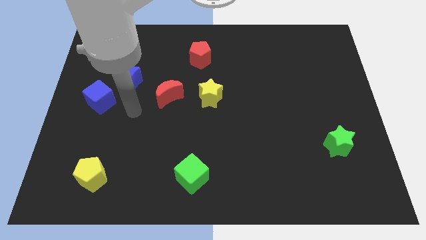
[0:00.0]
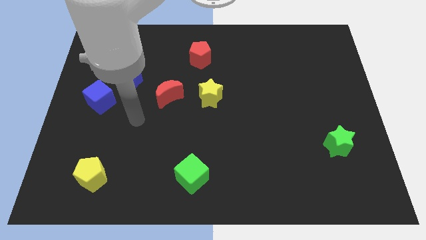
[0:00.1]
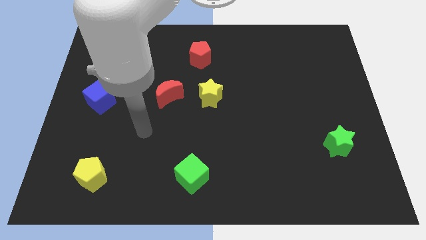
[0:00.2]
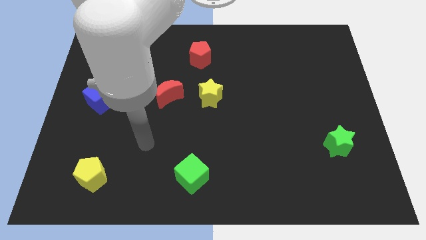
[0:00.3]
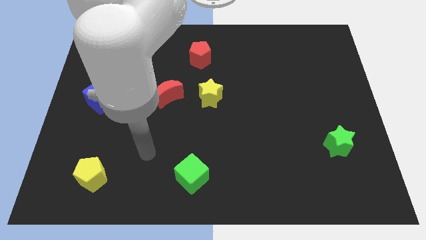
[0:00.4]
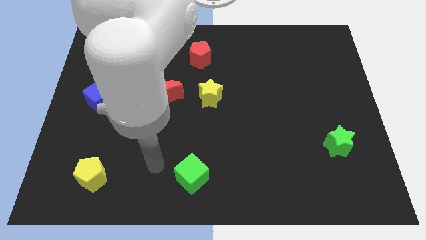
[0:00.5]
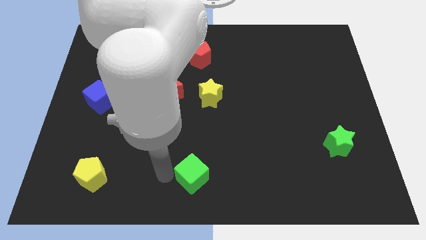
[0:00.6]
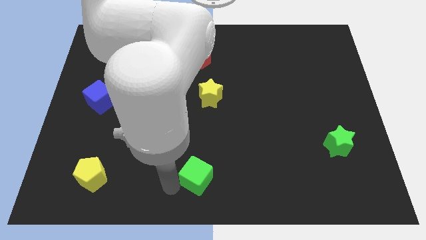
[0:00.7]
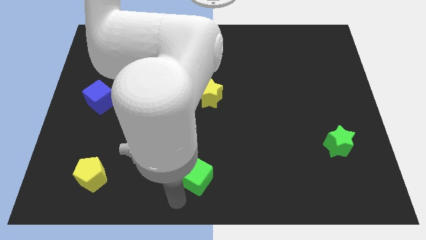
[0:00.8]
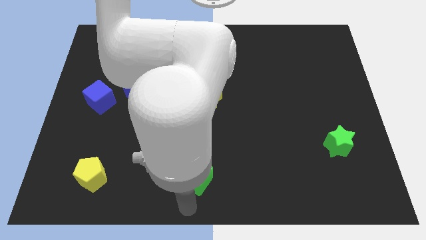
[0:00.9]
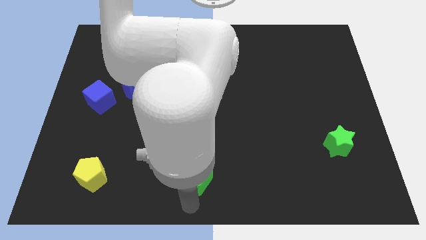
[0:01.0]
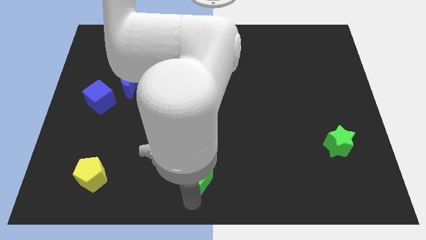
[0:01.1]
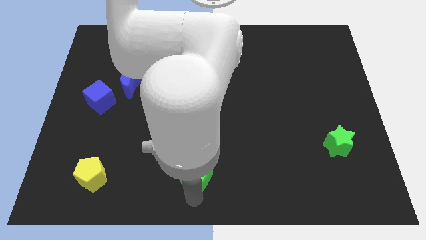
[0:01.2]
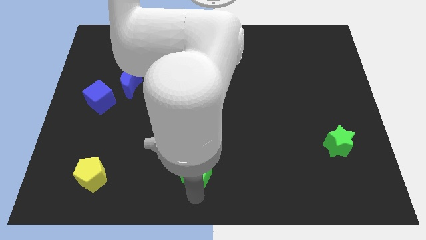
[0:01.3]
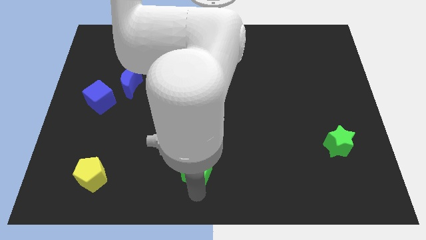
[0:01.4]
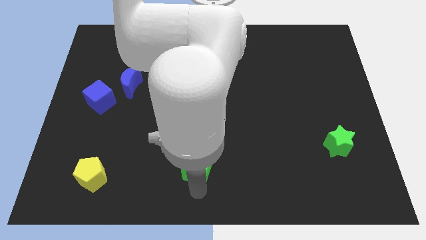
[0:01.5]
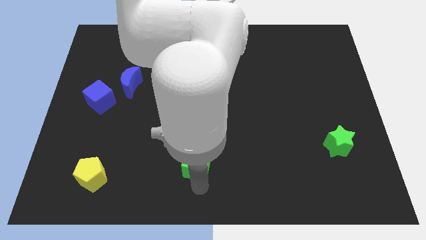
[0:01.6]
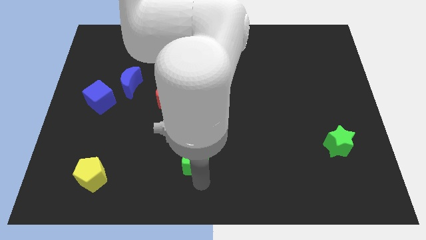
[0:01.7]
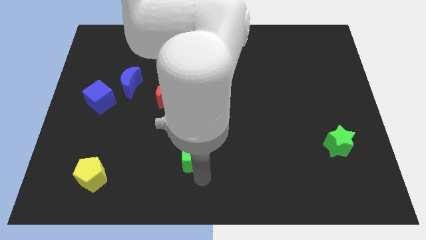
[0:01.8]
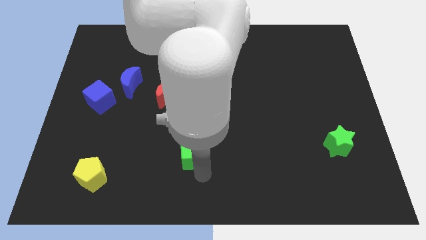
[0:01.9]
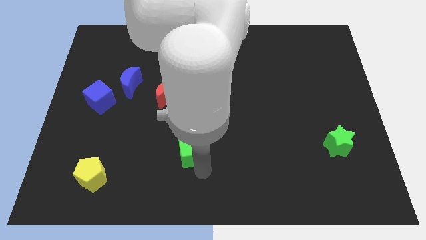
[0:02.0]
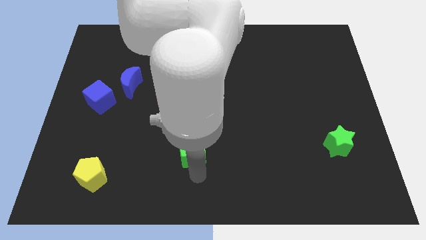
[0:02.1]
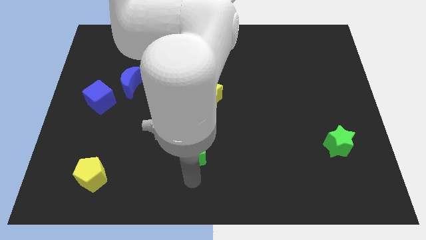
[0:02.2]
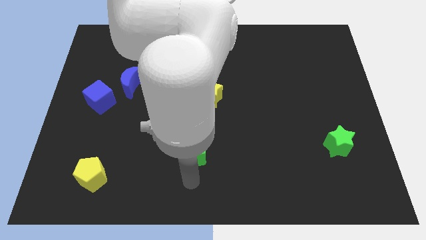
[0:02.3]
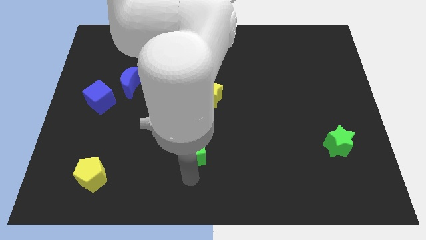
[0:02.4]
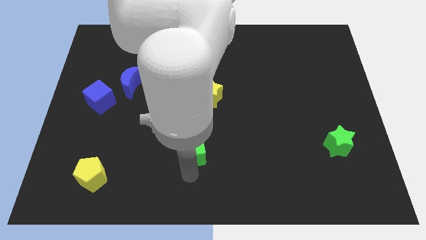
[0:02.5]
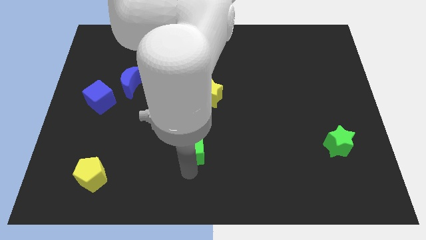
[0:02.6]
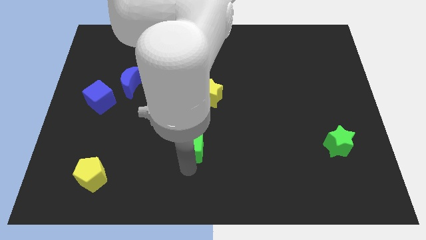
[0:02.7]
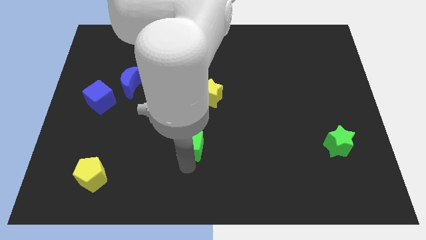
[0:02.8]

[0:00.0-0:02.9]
slide the green cube a little bit up

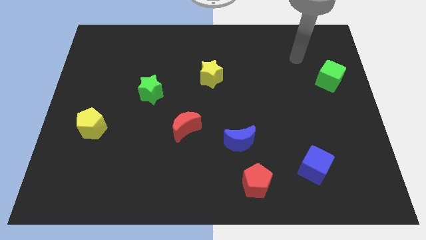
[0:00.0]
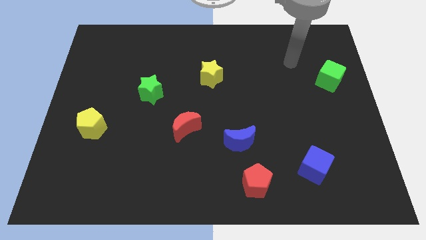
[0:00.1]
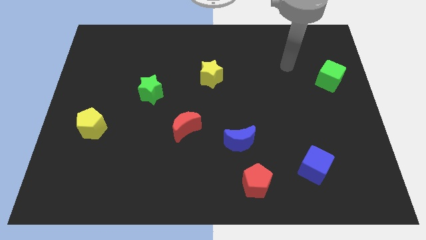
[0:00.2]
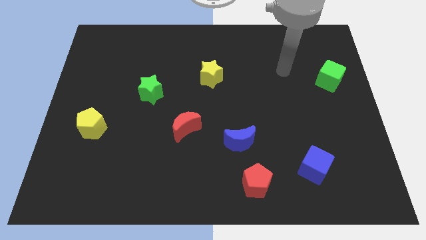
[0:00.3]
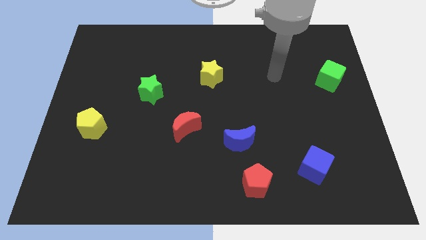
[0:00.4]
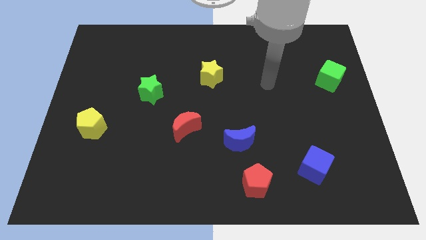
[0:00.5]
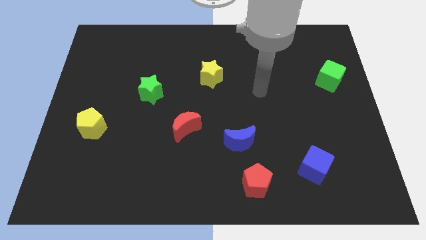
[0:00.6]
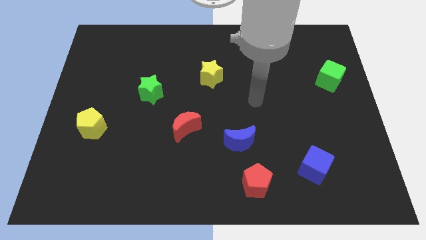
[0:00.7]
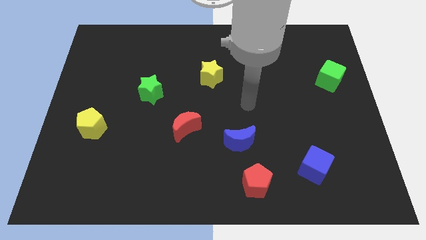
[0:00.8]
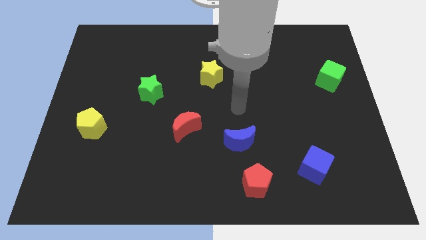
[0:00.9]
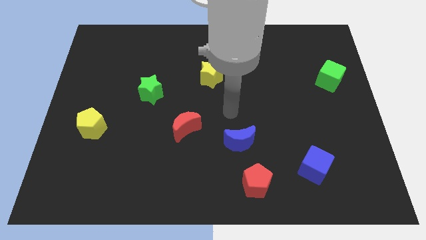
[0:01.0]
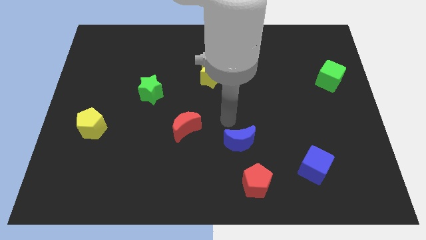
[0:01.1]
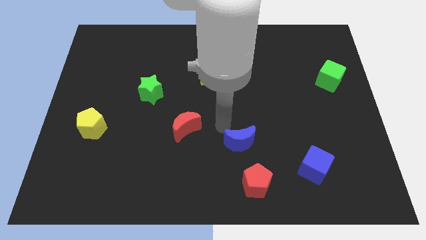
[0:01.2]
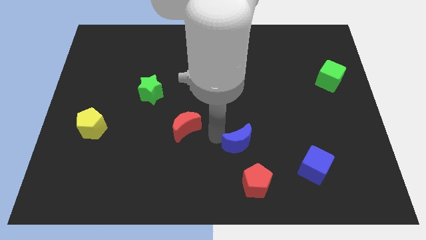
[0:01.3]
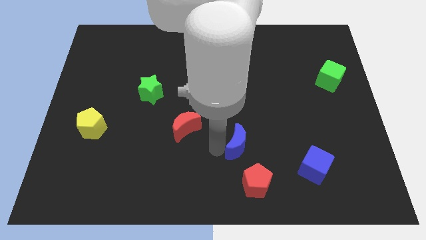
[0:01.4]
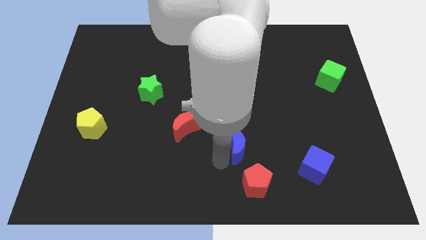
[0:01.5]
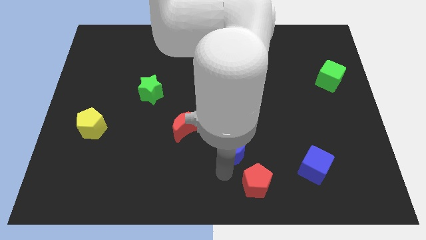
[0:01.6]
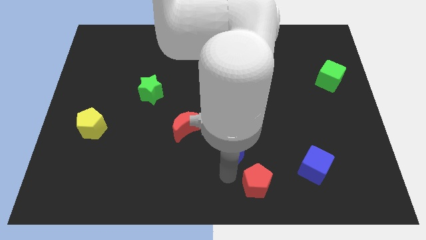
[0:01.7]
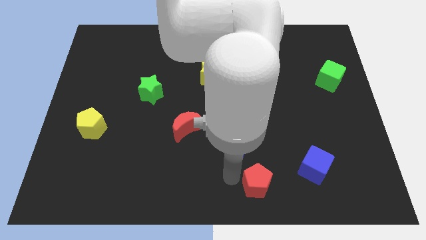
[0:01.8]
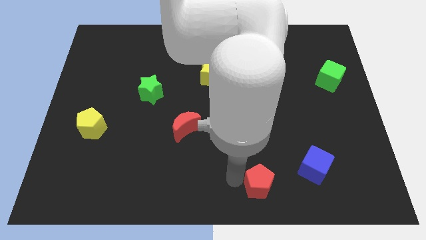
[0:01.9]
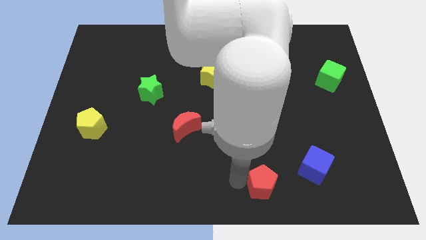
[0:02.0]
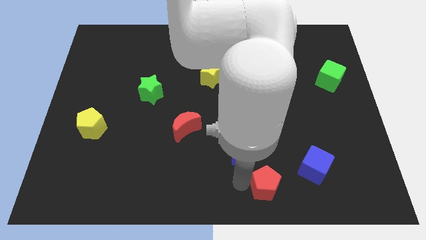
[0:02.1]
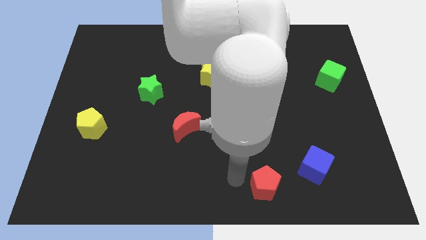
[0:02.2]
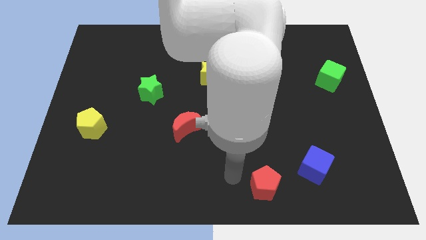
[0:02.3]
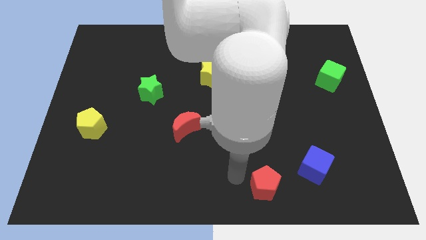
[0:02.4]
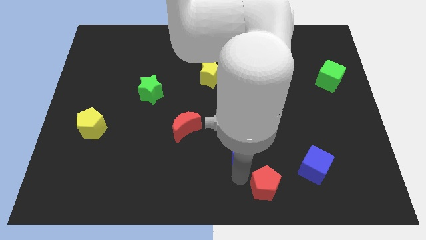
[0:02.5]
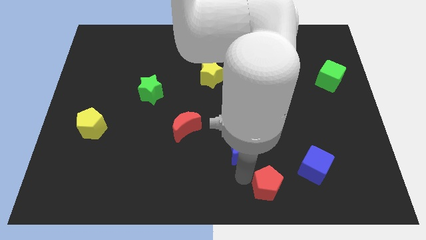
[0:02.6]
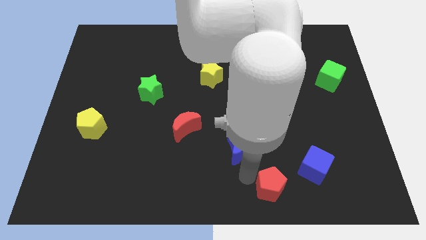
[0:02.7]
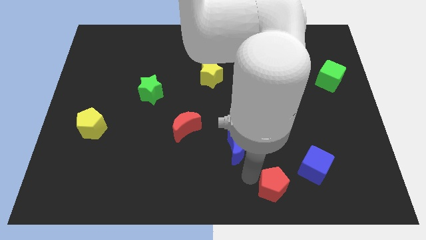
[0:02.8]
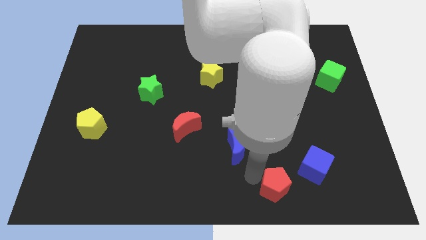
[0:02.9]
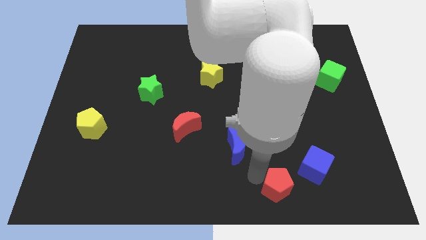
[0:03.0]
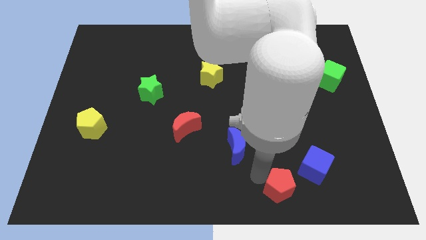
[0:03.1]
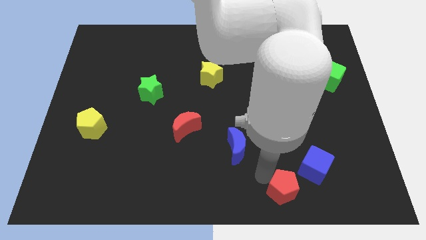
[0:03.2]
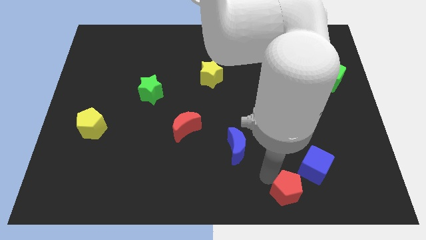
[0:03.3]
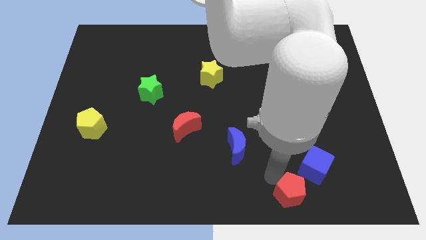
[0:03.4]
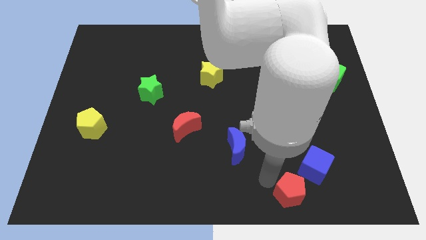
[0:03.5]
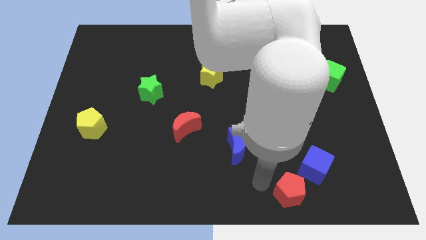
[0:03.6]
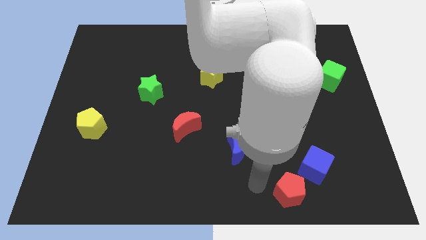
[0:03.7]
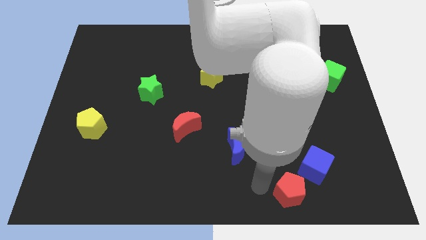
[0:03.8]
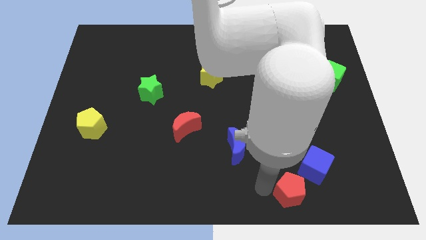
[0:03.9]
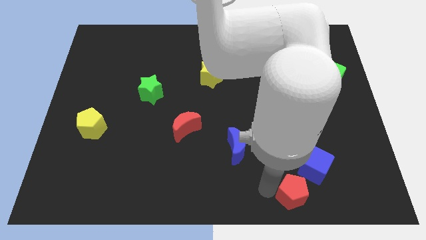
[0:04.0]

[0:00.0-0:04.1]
slide the red pentagon a bit to the right

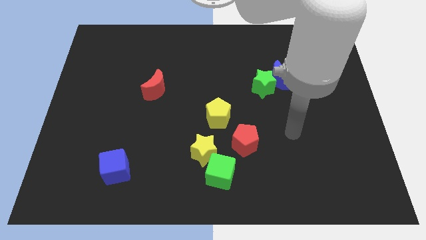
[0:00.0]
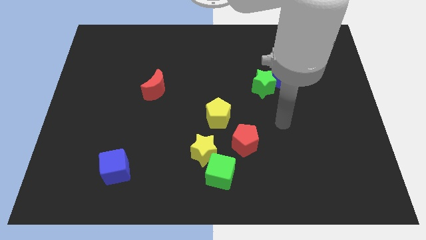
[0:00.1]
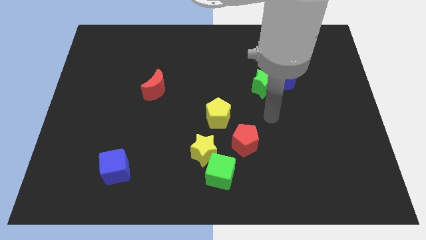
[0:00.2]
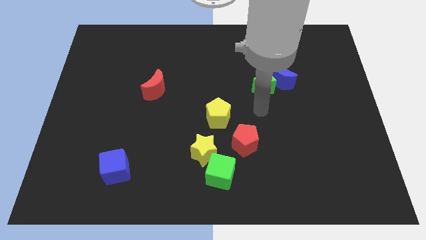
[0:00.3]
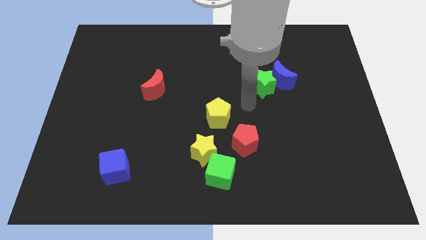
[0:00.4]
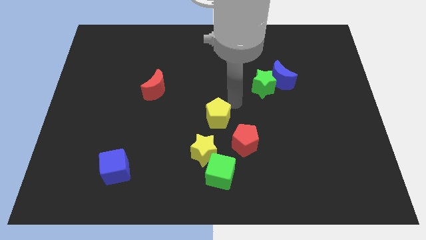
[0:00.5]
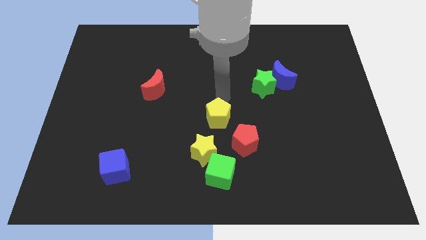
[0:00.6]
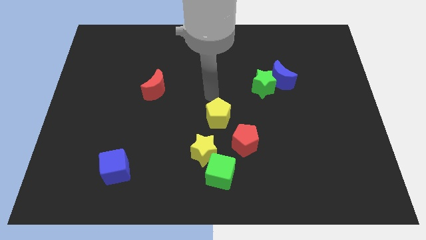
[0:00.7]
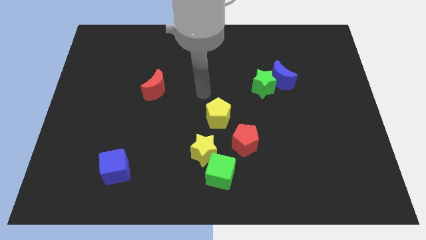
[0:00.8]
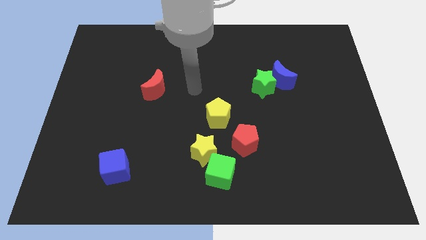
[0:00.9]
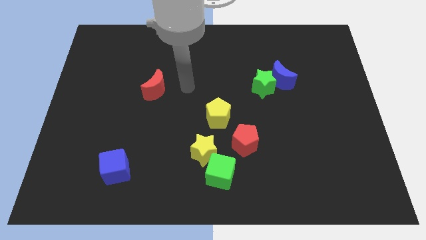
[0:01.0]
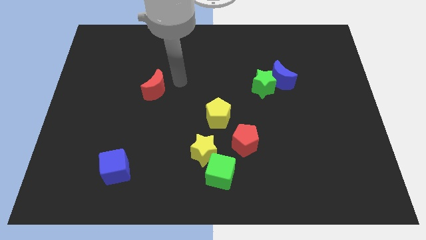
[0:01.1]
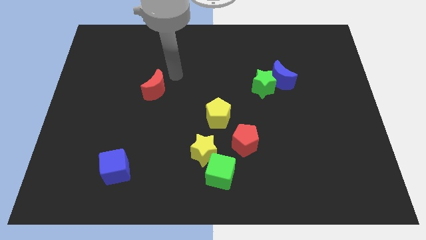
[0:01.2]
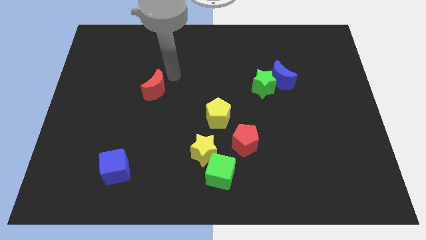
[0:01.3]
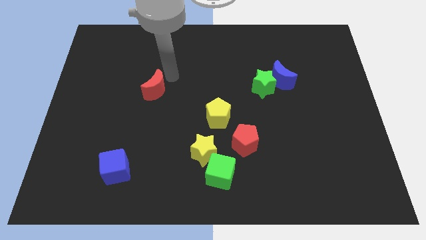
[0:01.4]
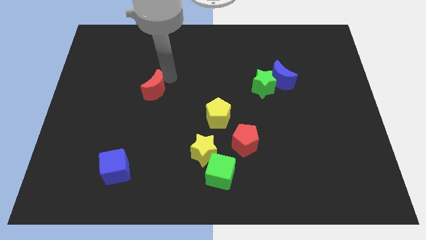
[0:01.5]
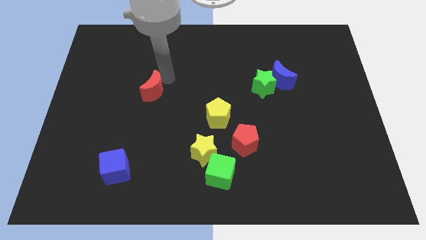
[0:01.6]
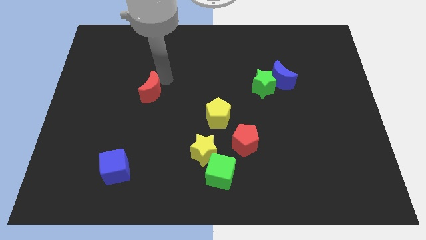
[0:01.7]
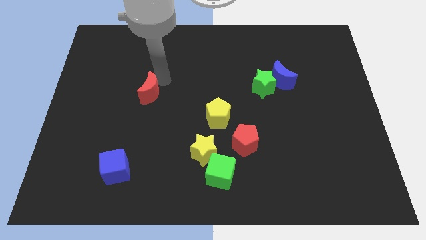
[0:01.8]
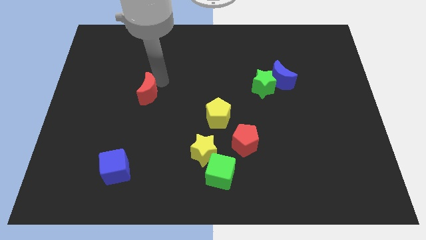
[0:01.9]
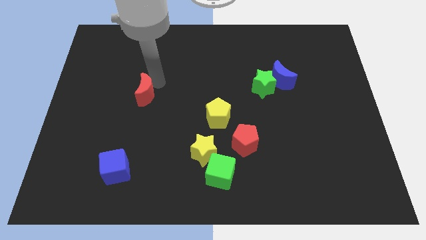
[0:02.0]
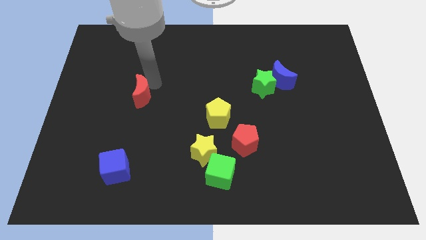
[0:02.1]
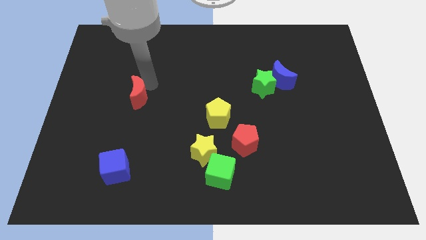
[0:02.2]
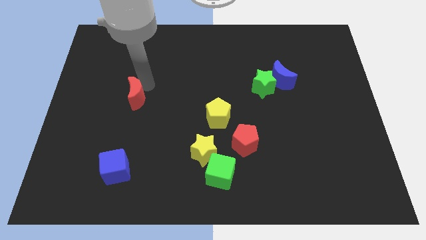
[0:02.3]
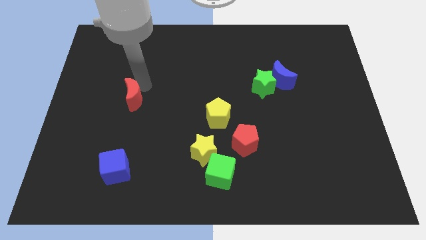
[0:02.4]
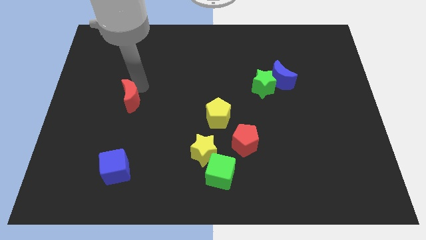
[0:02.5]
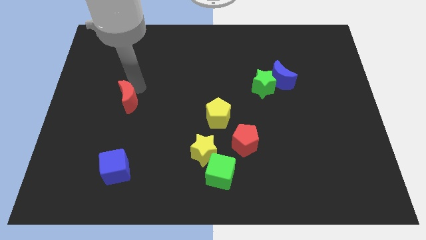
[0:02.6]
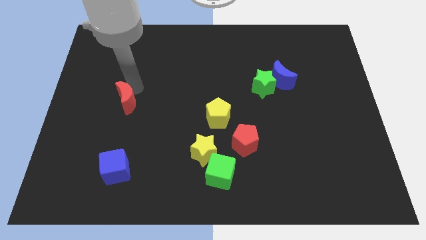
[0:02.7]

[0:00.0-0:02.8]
move the red moon slightly downwards and left
